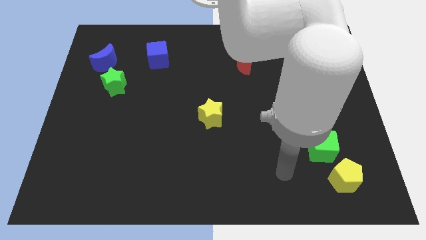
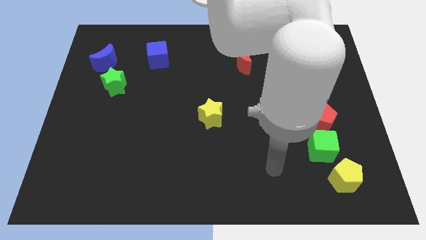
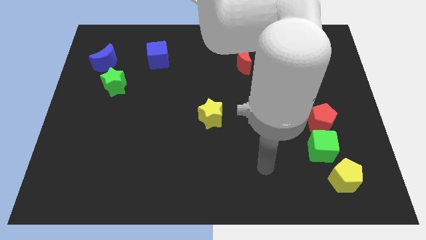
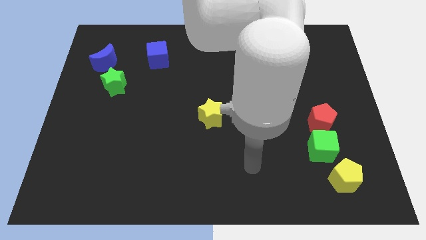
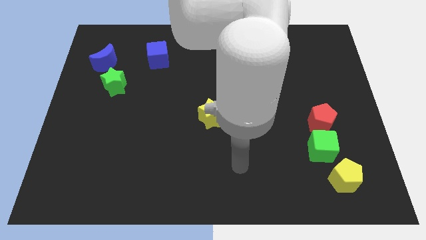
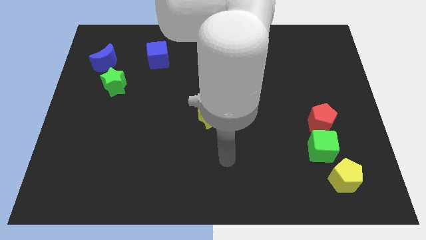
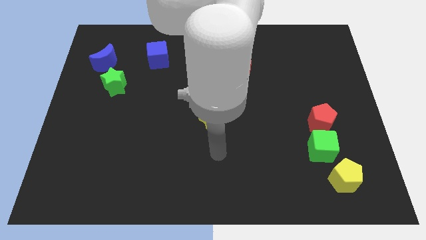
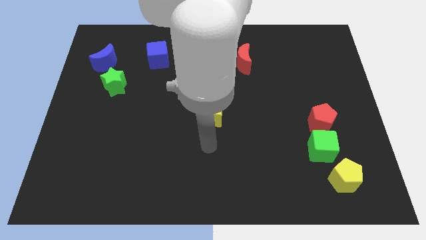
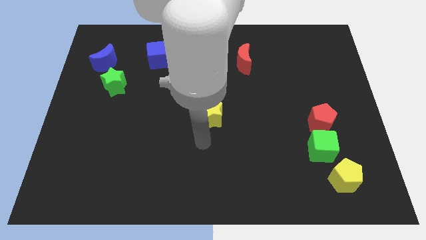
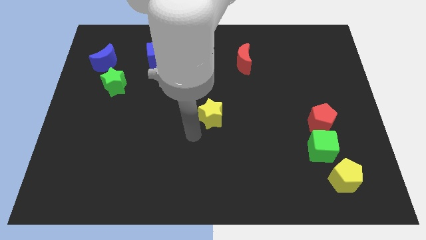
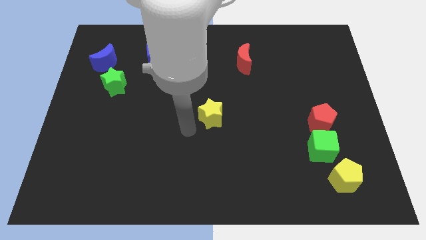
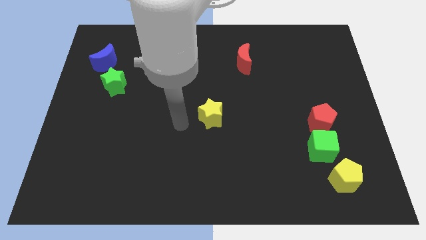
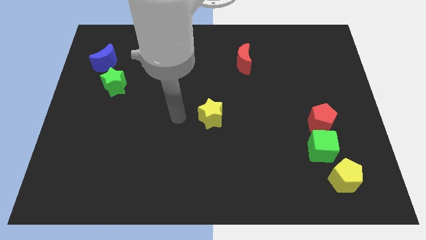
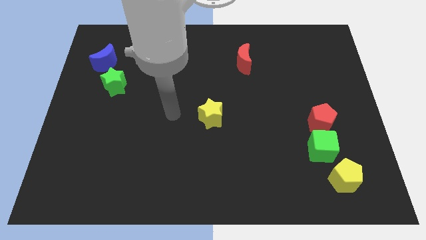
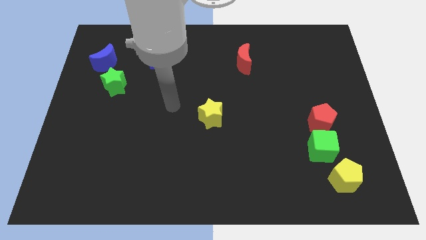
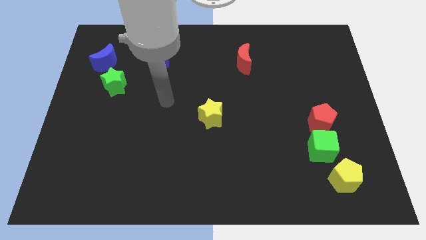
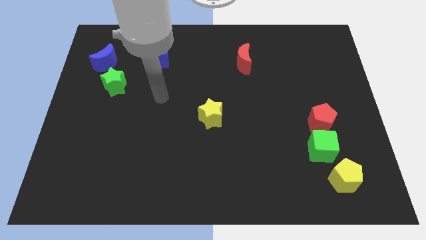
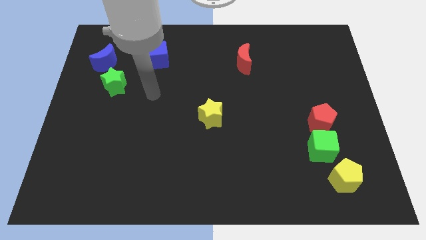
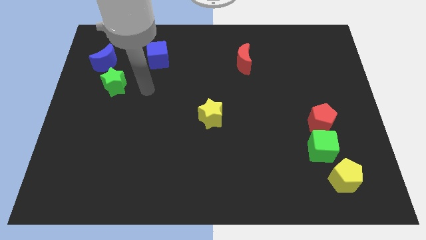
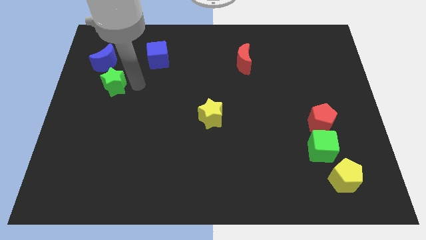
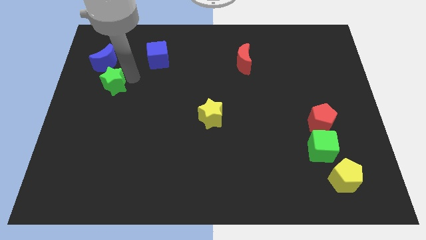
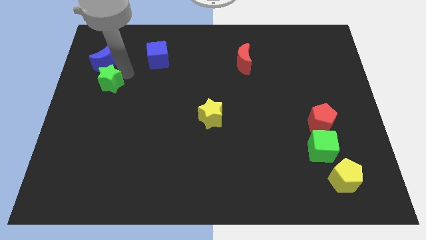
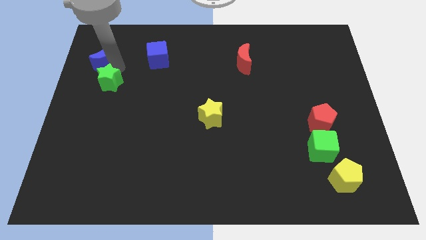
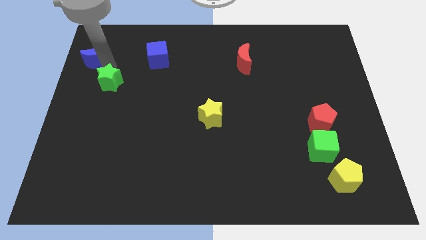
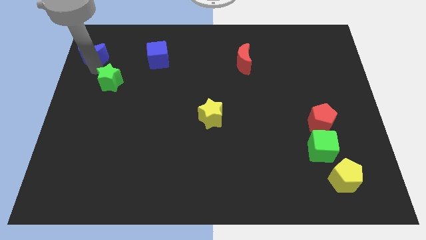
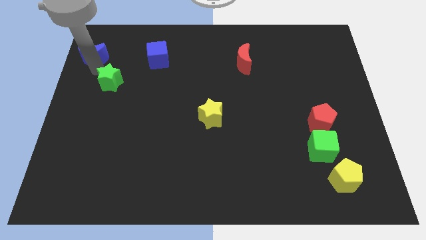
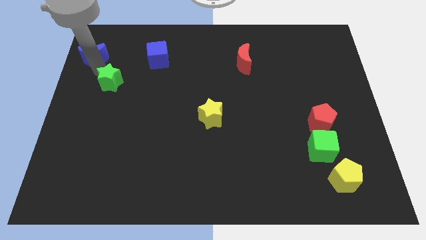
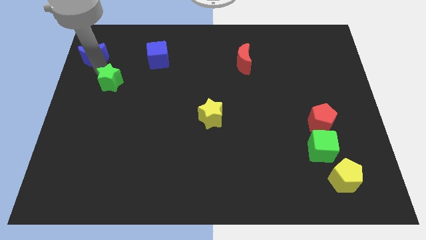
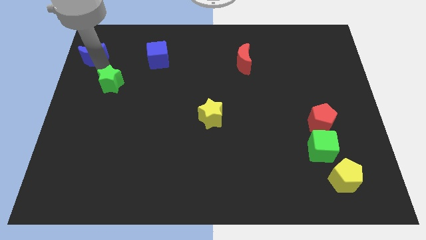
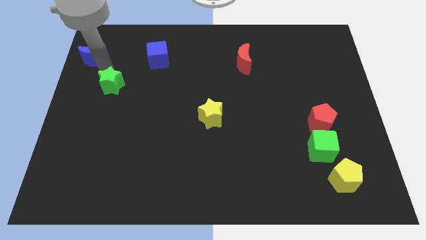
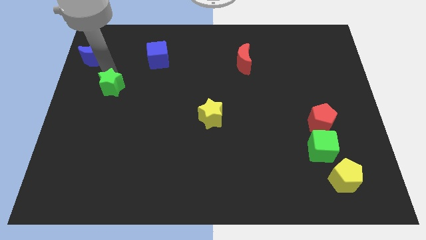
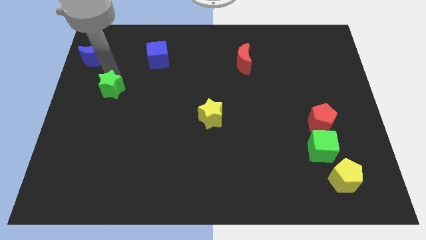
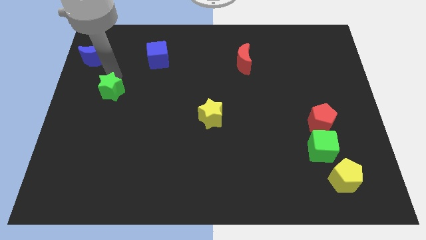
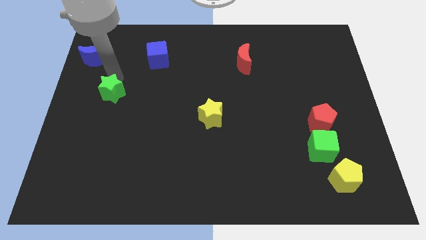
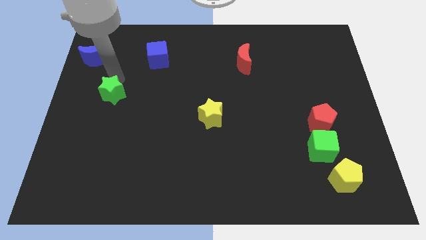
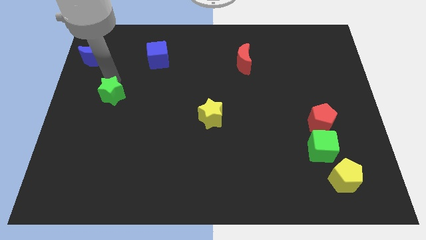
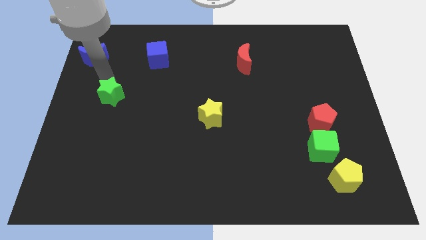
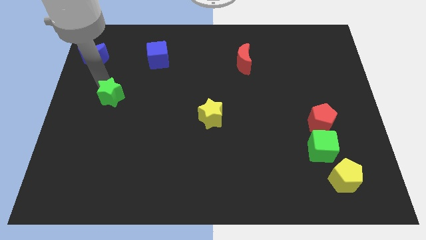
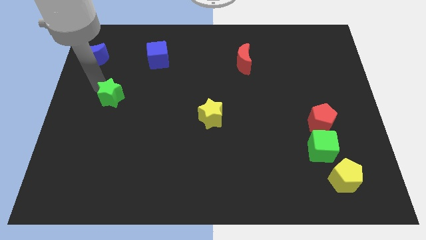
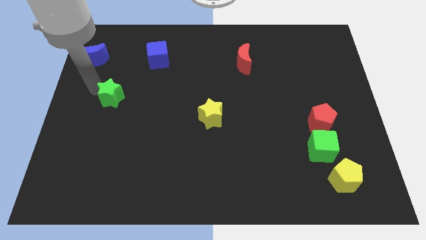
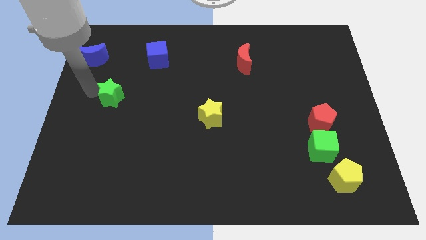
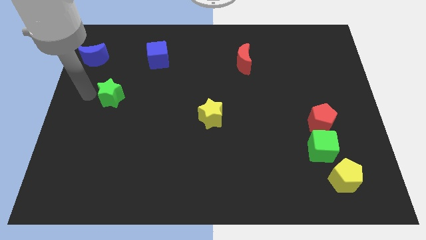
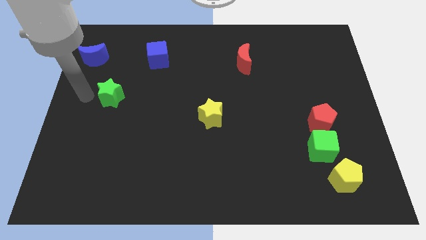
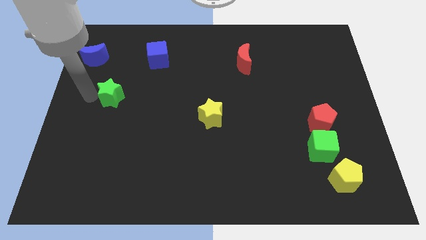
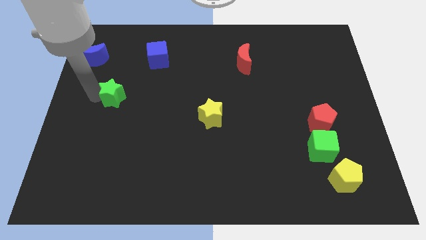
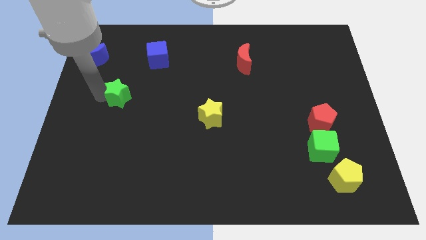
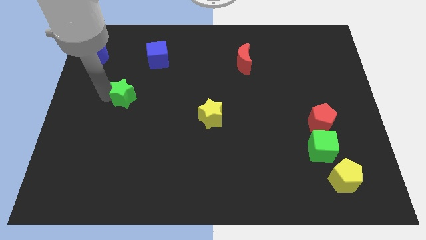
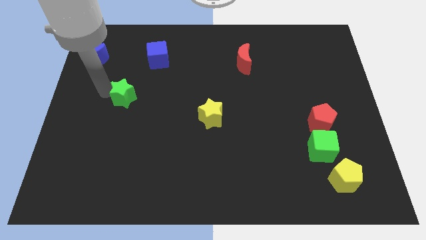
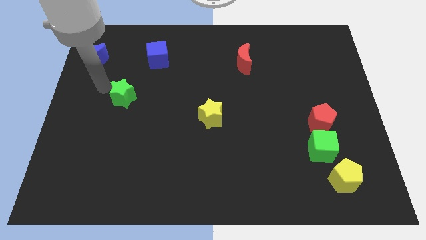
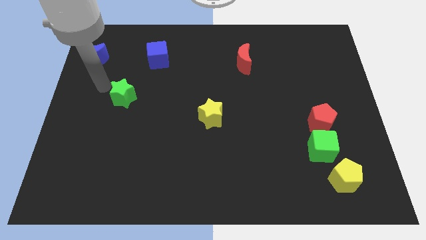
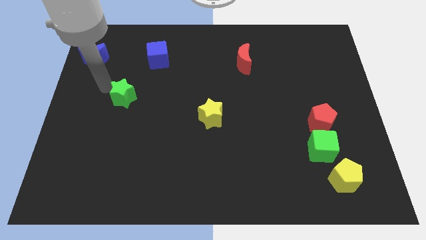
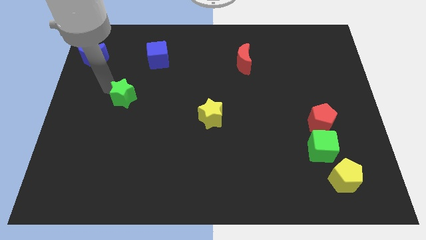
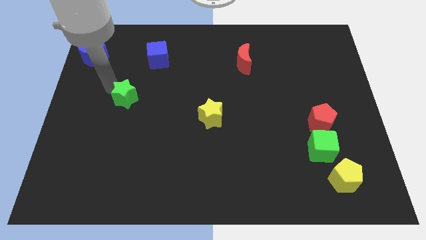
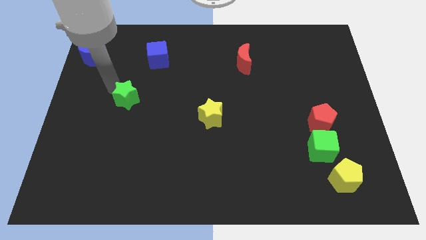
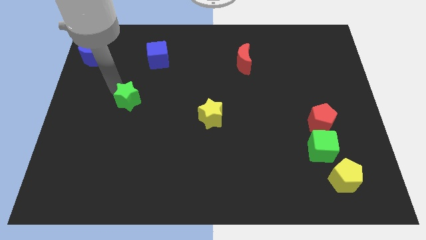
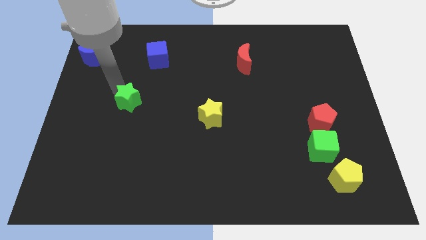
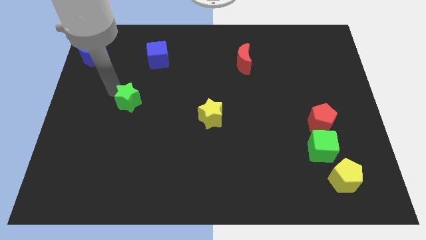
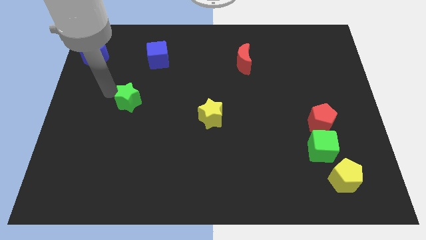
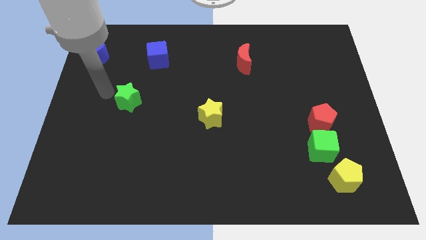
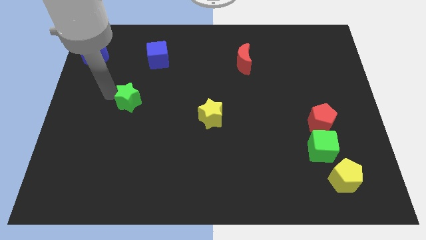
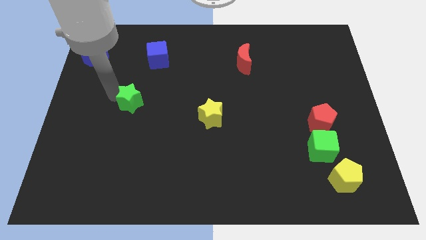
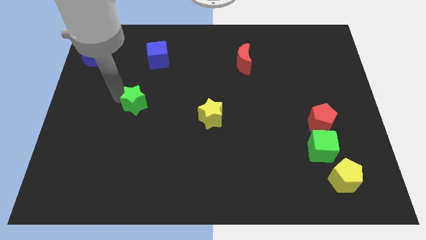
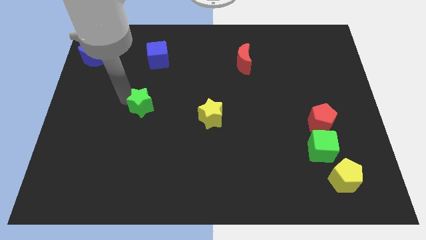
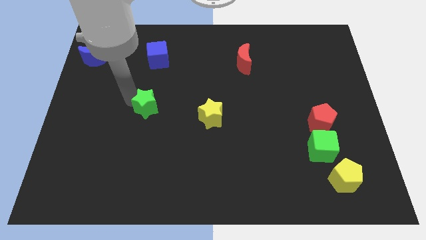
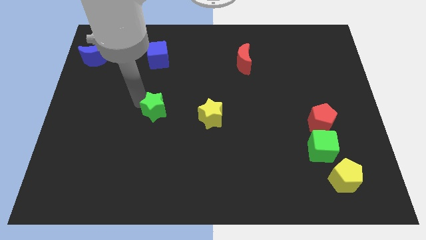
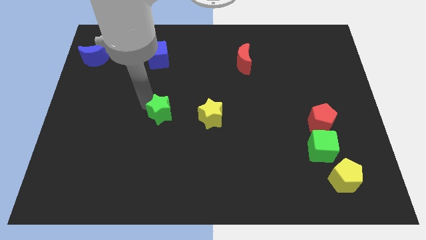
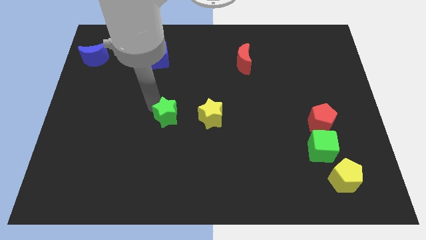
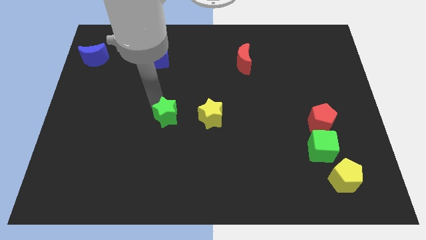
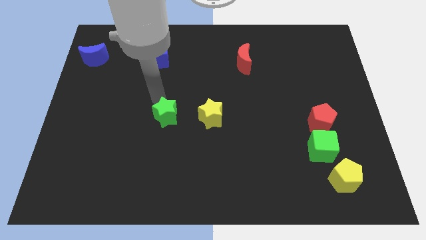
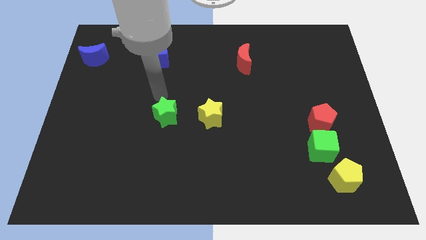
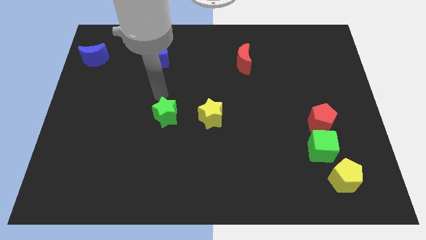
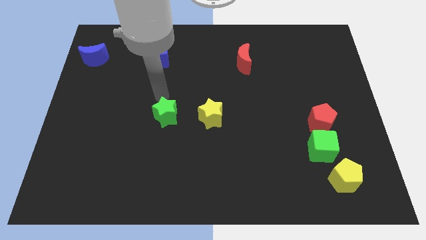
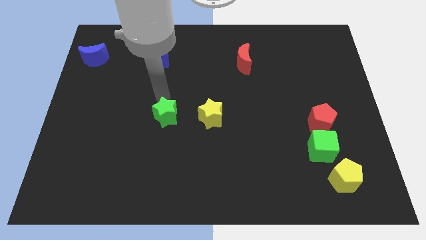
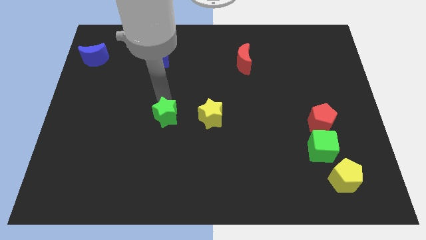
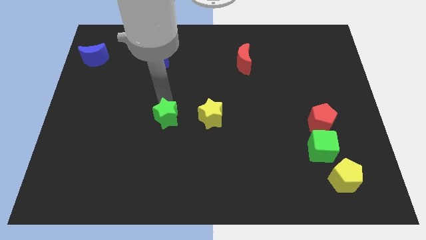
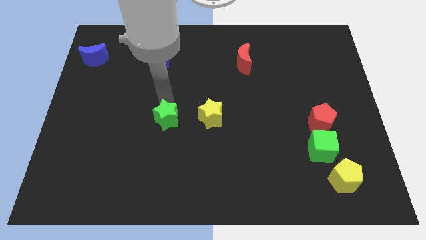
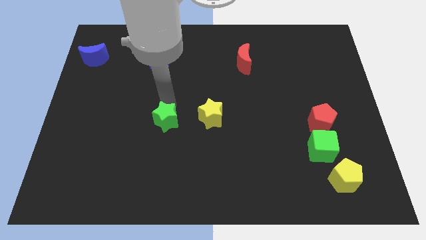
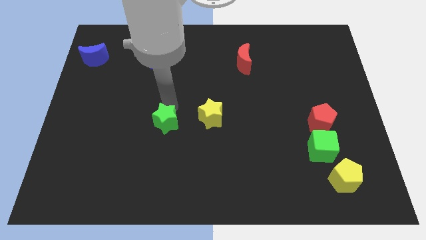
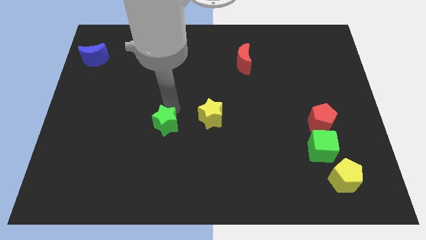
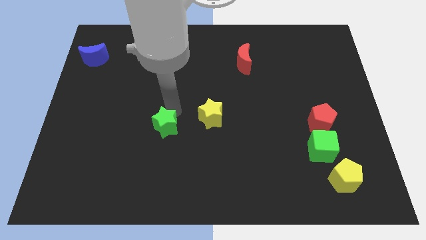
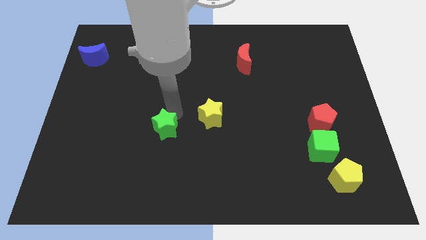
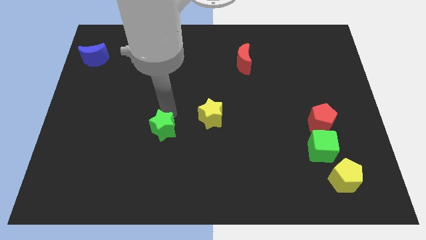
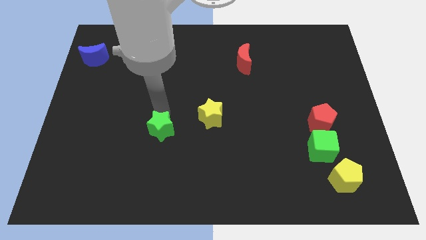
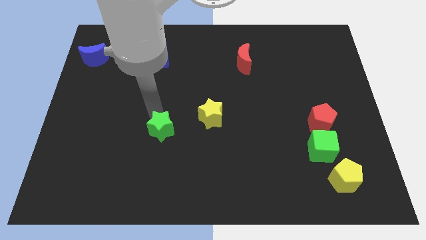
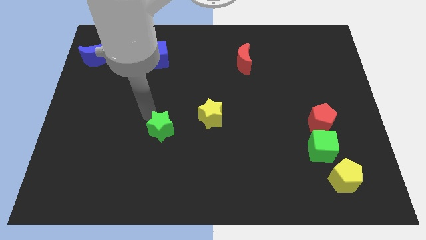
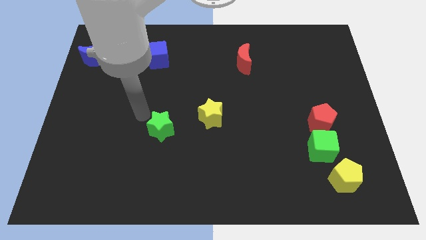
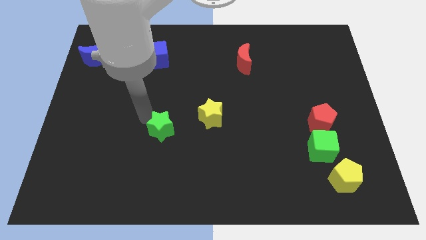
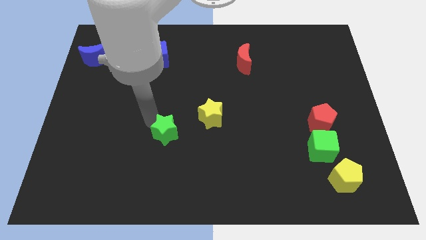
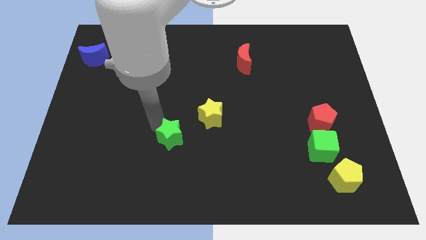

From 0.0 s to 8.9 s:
move the green star diagonally downwards and right
